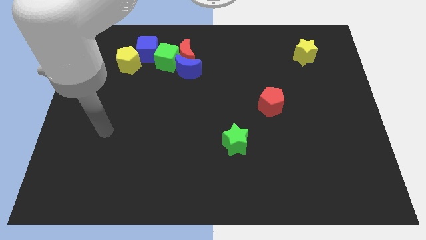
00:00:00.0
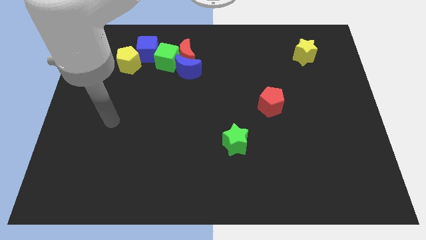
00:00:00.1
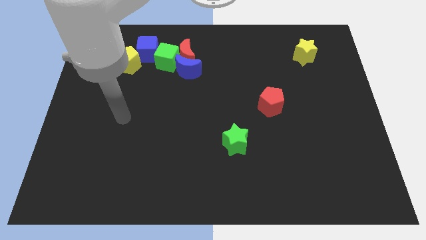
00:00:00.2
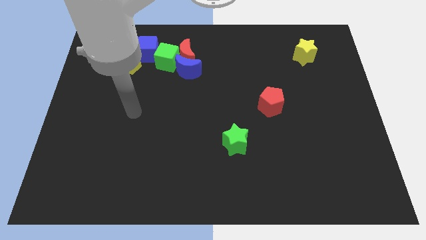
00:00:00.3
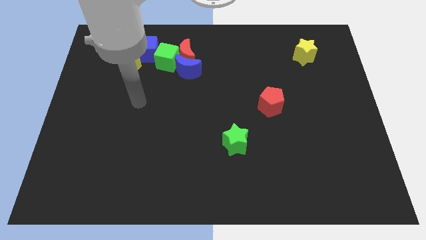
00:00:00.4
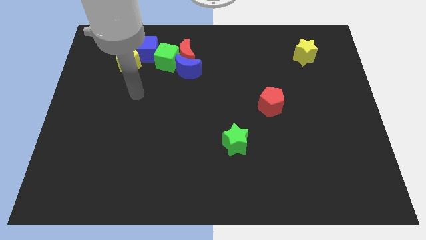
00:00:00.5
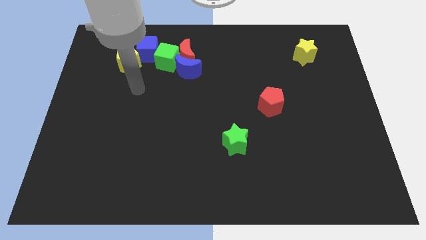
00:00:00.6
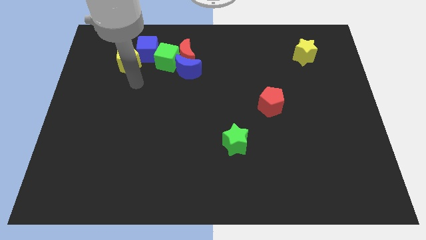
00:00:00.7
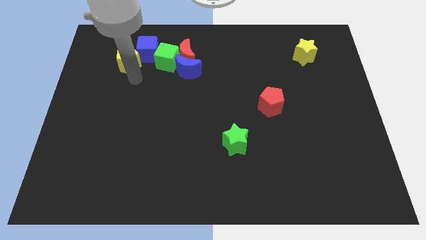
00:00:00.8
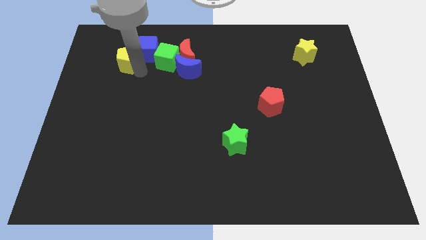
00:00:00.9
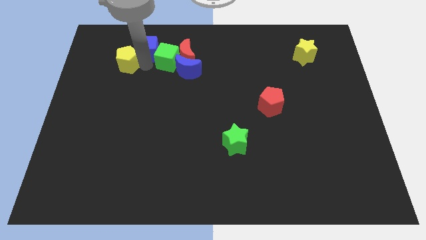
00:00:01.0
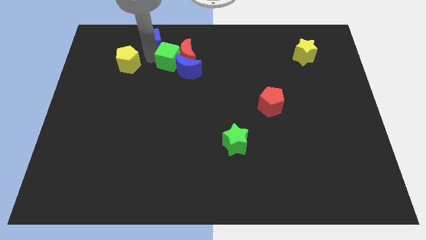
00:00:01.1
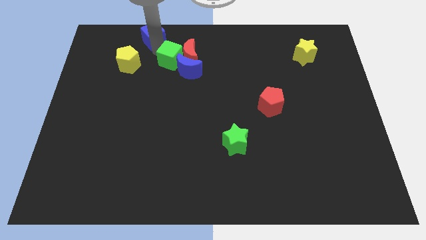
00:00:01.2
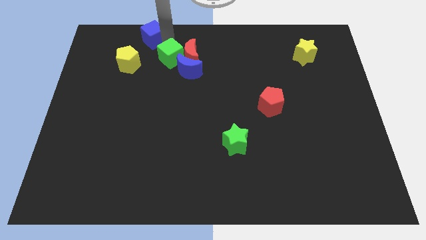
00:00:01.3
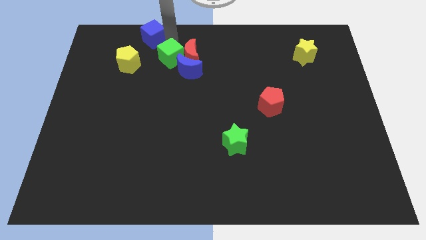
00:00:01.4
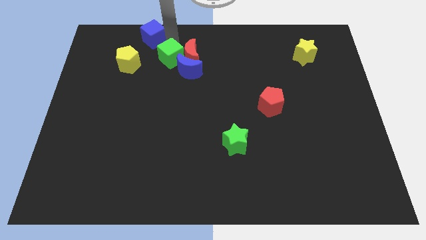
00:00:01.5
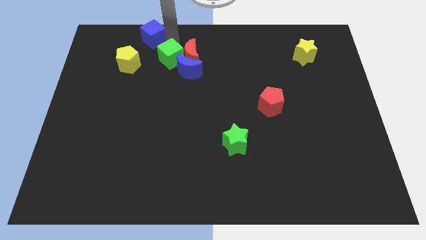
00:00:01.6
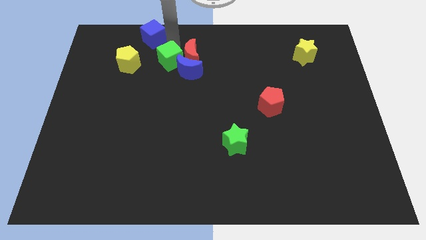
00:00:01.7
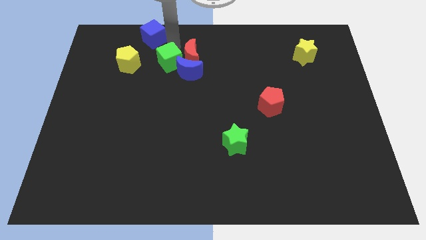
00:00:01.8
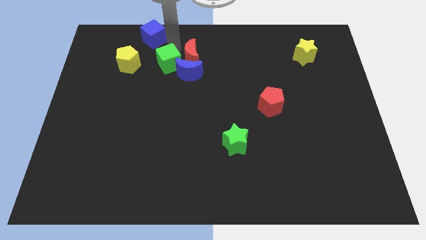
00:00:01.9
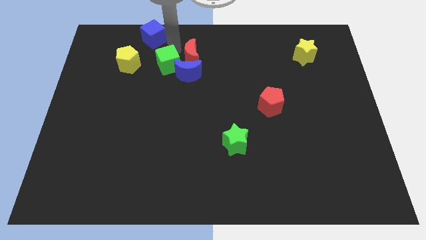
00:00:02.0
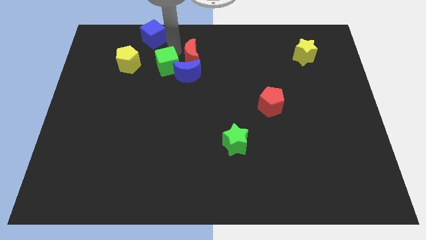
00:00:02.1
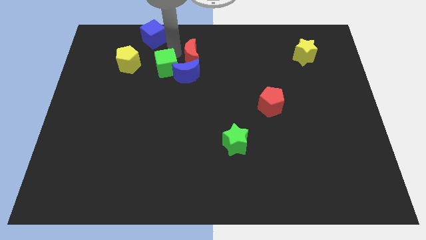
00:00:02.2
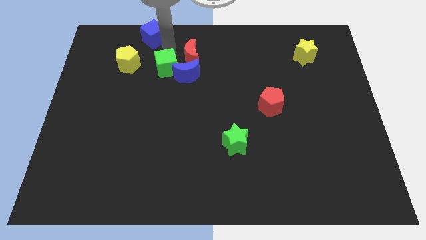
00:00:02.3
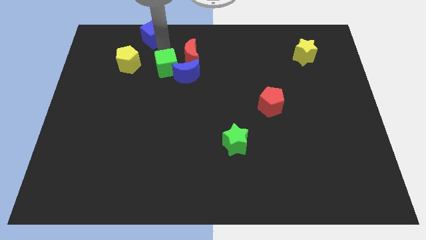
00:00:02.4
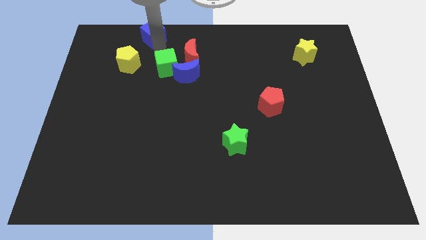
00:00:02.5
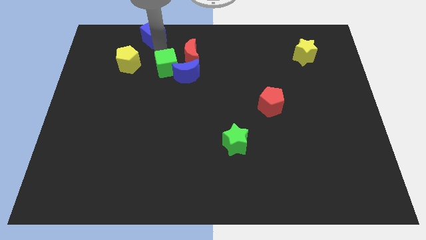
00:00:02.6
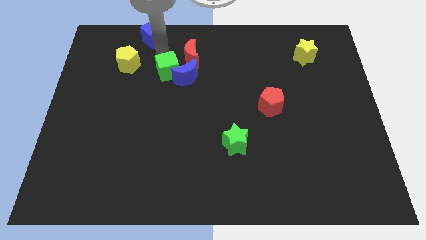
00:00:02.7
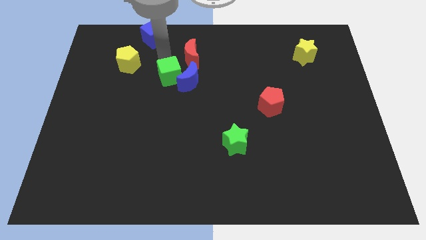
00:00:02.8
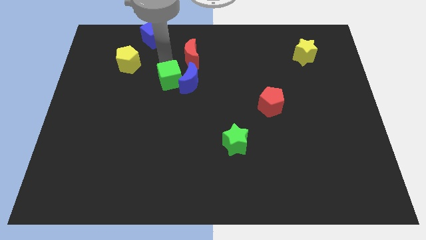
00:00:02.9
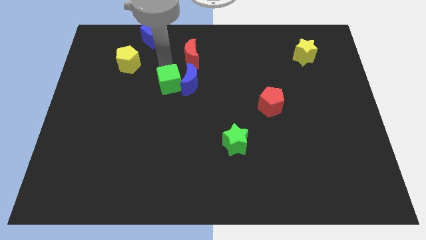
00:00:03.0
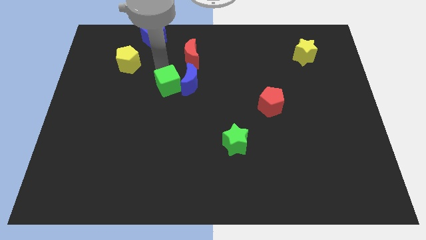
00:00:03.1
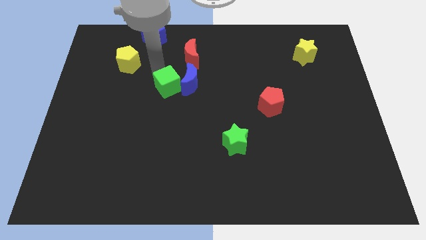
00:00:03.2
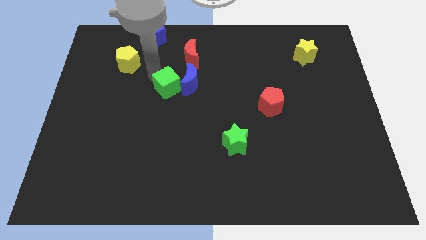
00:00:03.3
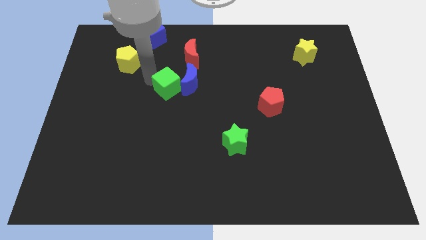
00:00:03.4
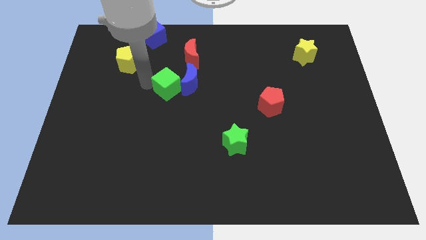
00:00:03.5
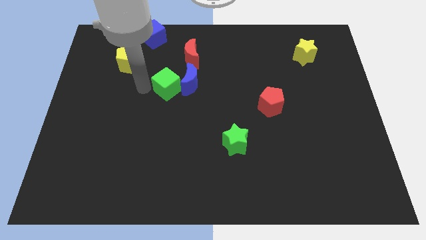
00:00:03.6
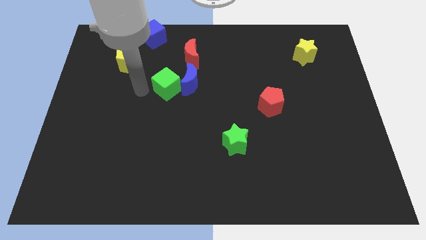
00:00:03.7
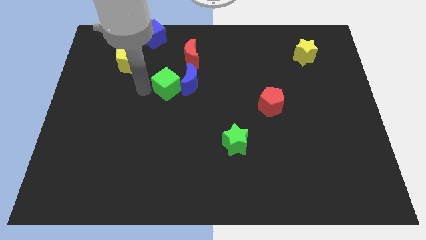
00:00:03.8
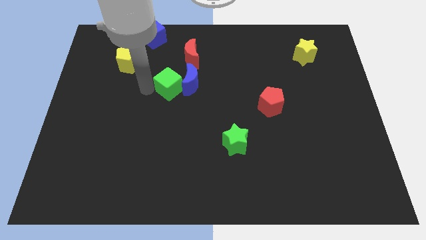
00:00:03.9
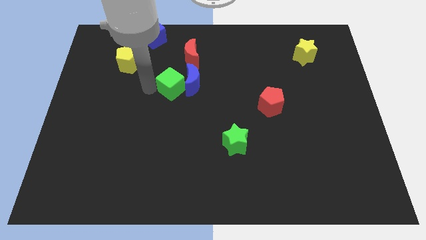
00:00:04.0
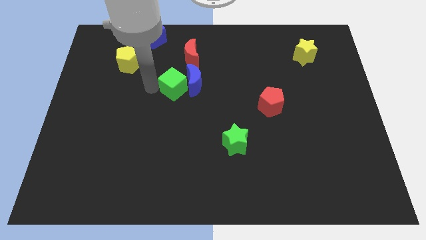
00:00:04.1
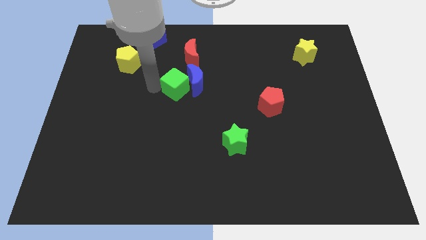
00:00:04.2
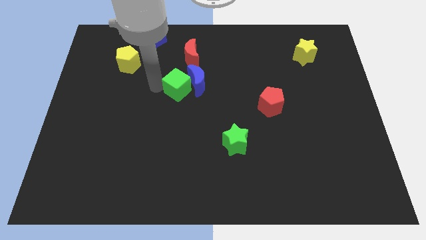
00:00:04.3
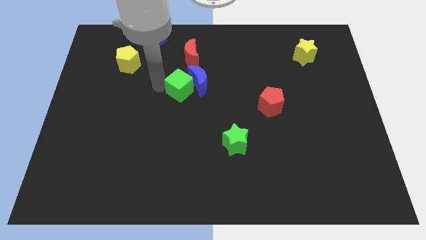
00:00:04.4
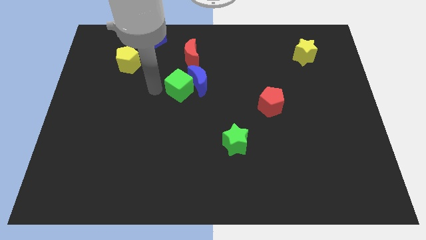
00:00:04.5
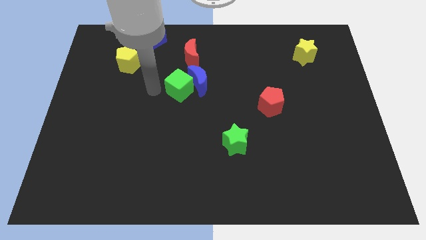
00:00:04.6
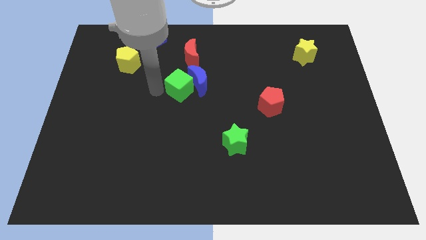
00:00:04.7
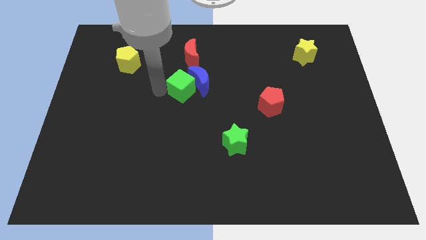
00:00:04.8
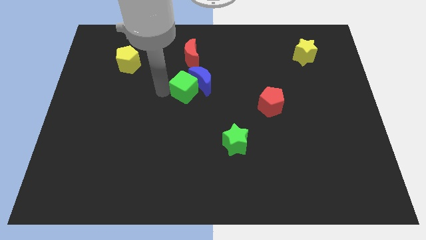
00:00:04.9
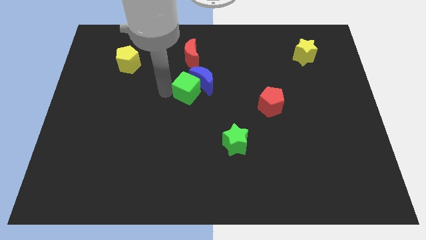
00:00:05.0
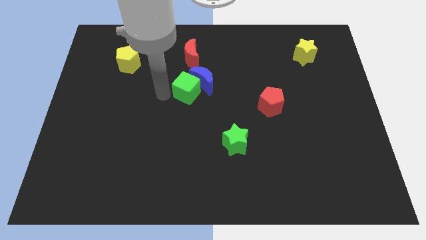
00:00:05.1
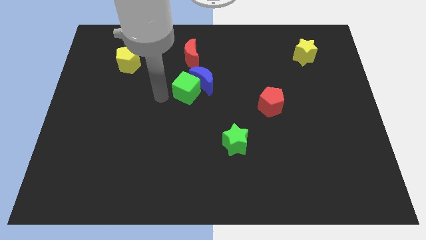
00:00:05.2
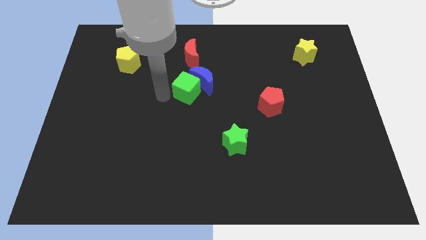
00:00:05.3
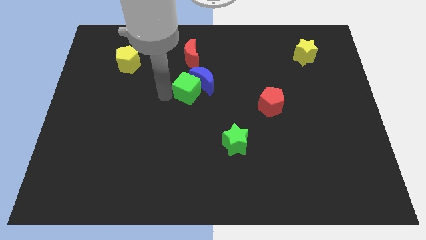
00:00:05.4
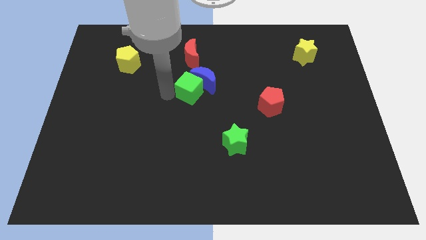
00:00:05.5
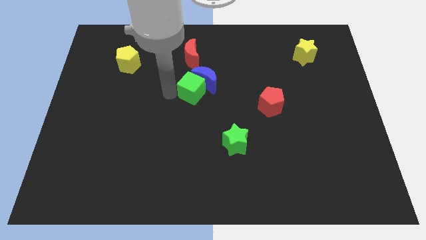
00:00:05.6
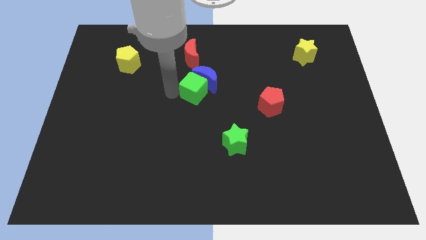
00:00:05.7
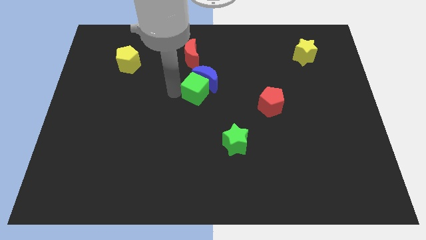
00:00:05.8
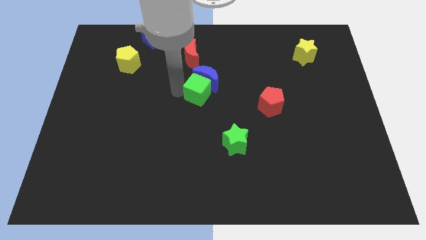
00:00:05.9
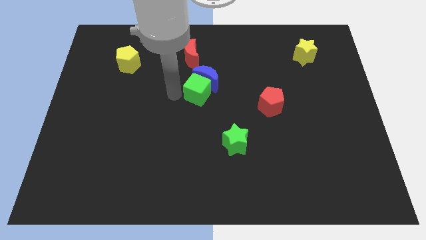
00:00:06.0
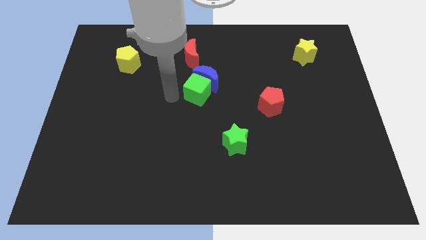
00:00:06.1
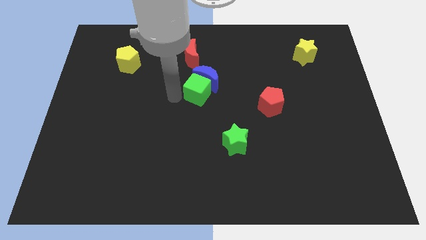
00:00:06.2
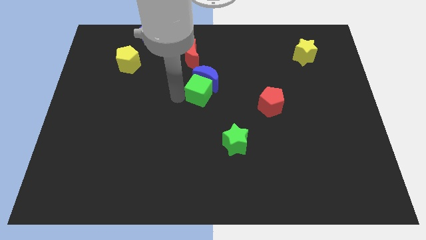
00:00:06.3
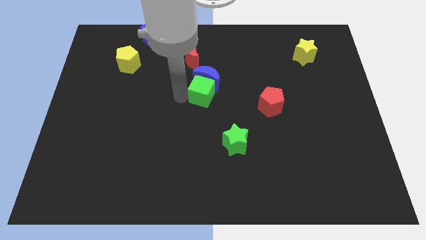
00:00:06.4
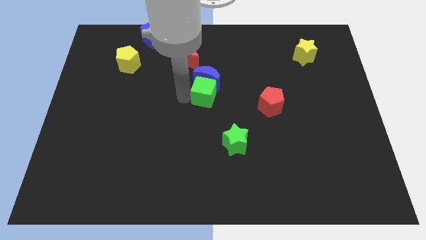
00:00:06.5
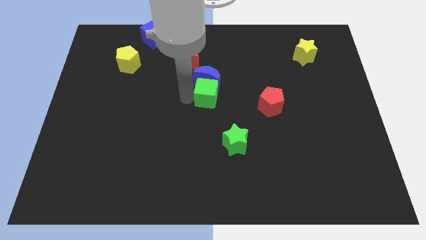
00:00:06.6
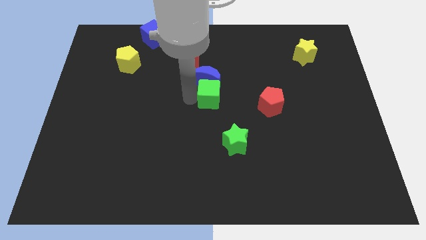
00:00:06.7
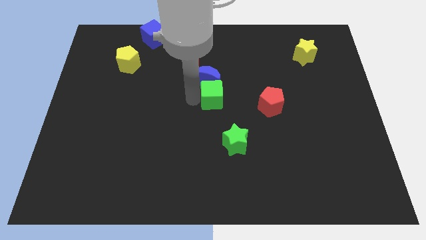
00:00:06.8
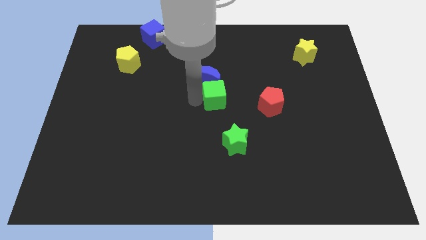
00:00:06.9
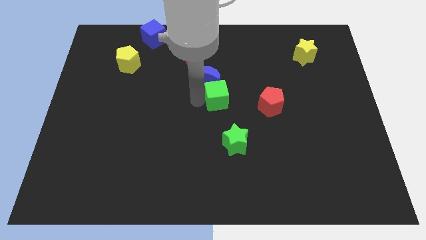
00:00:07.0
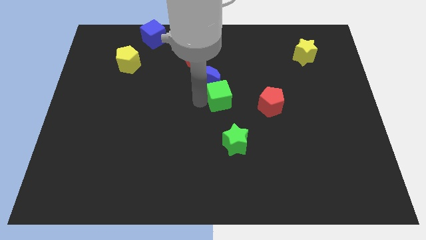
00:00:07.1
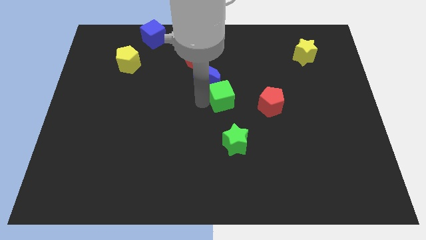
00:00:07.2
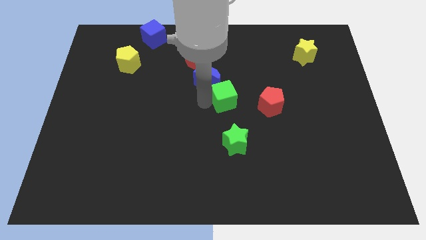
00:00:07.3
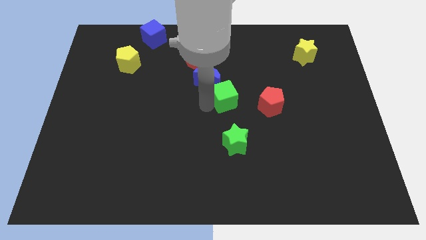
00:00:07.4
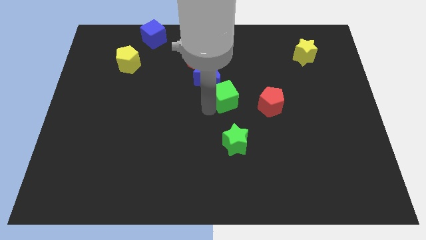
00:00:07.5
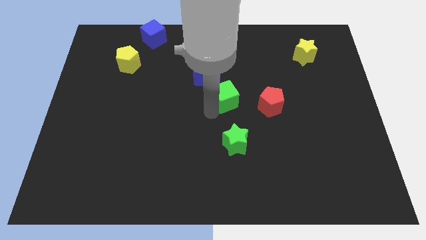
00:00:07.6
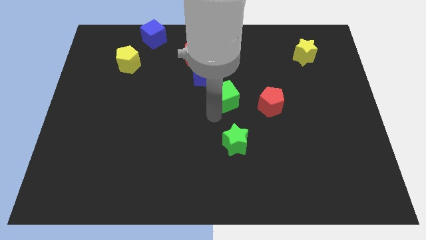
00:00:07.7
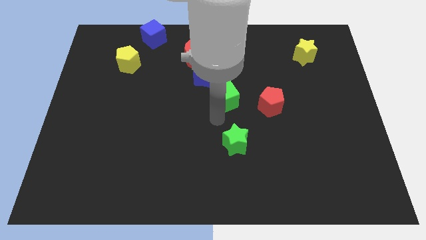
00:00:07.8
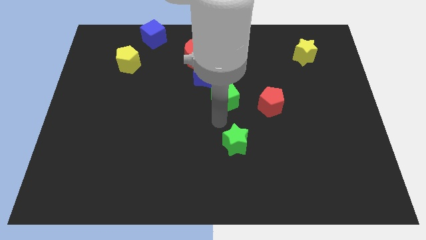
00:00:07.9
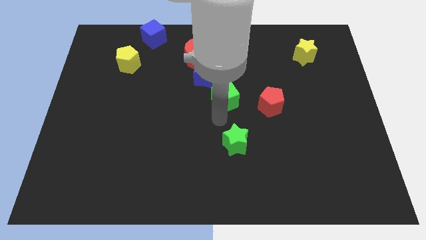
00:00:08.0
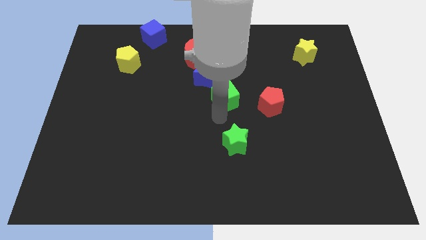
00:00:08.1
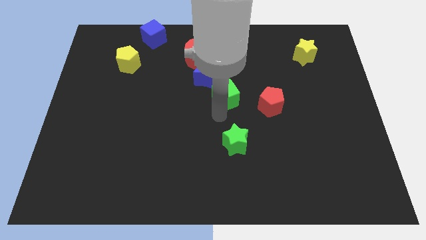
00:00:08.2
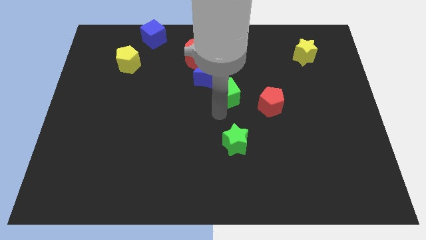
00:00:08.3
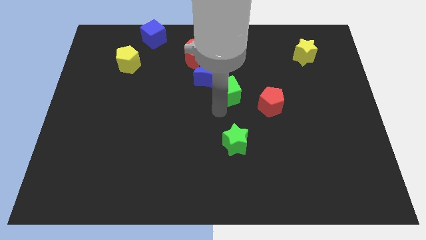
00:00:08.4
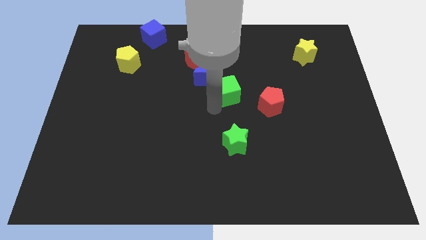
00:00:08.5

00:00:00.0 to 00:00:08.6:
slide the green cube diagonally up and to the left of the red pentagon
